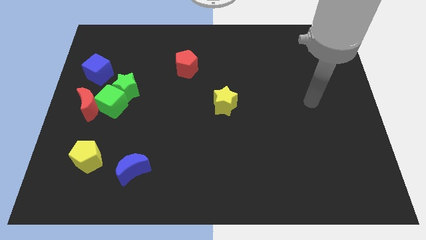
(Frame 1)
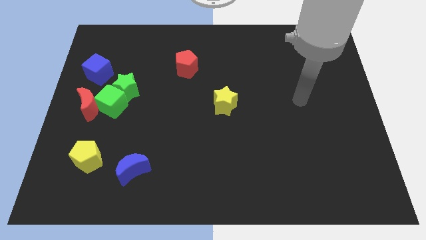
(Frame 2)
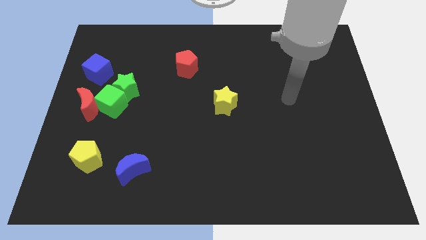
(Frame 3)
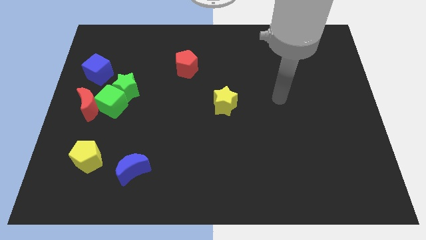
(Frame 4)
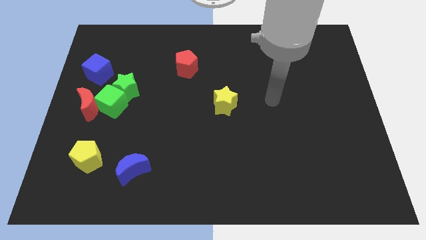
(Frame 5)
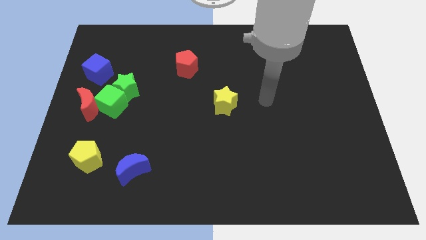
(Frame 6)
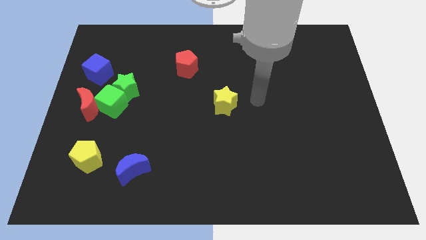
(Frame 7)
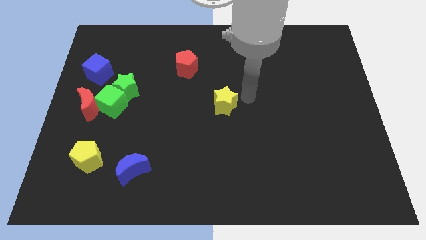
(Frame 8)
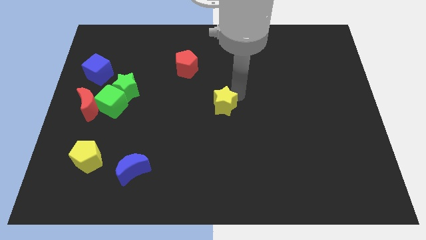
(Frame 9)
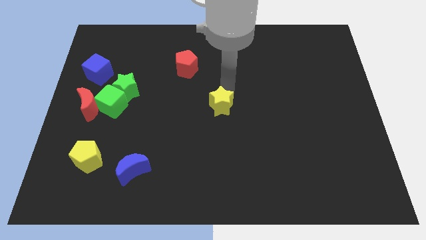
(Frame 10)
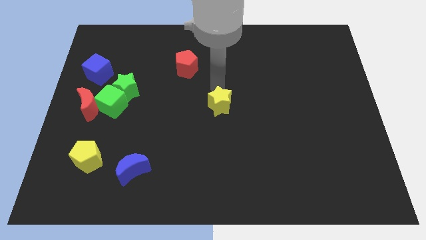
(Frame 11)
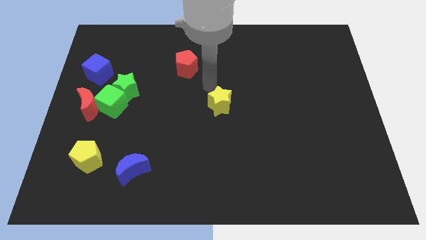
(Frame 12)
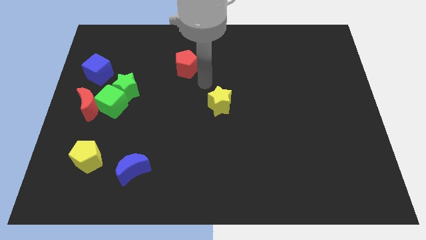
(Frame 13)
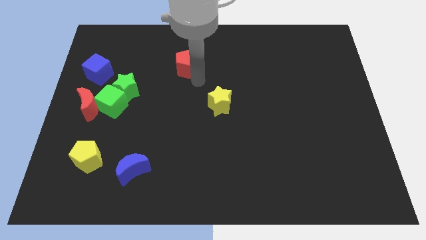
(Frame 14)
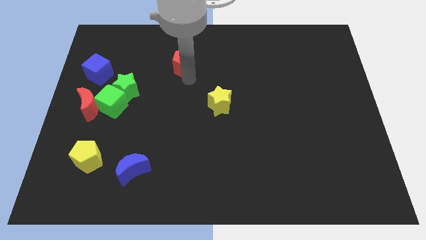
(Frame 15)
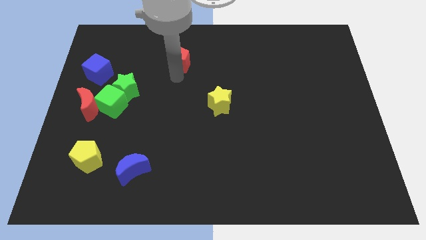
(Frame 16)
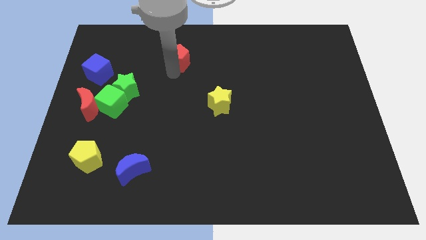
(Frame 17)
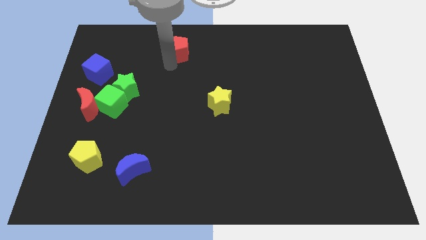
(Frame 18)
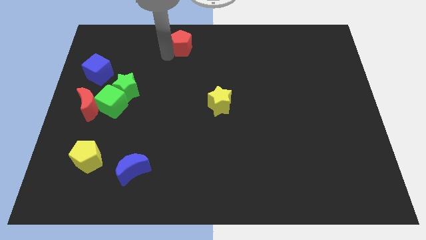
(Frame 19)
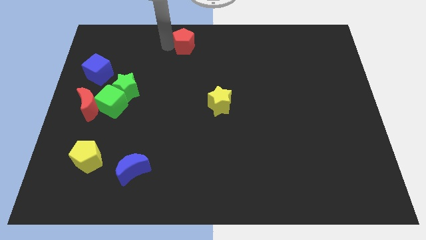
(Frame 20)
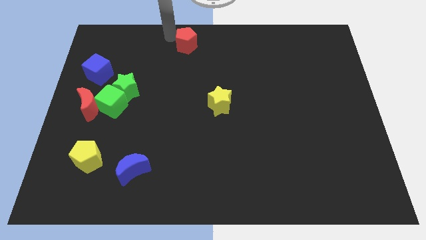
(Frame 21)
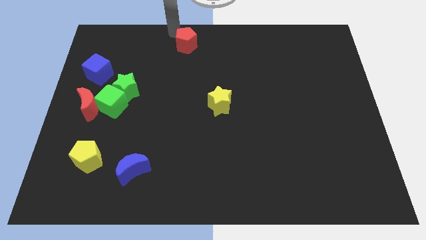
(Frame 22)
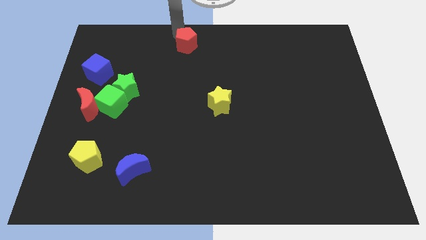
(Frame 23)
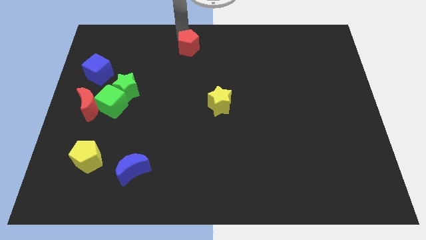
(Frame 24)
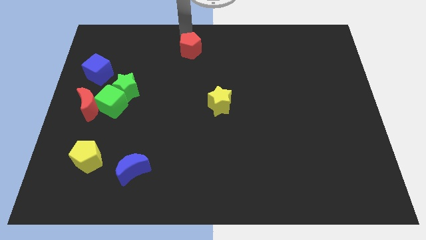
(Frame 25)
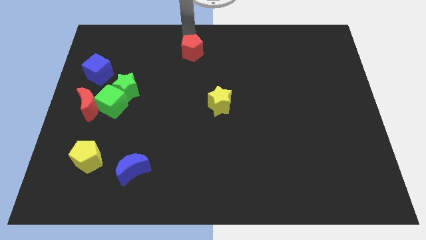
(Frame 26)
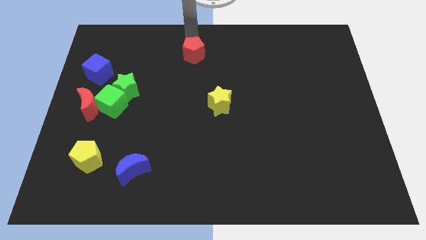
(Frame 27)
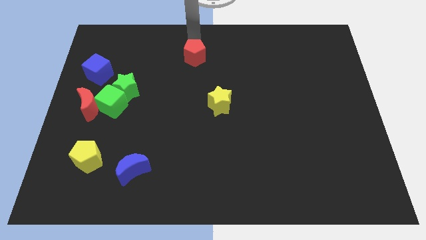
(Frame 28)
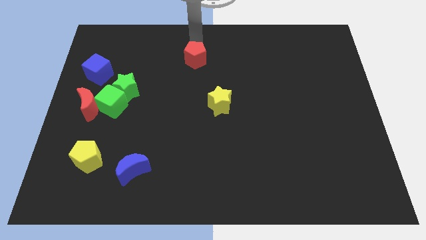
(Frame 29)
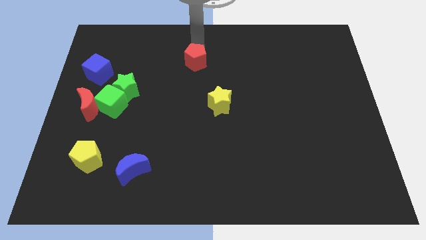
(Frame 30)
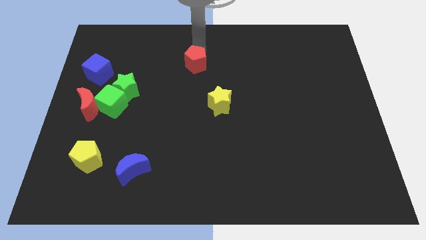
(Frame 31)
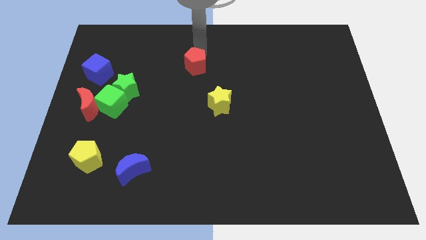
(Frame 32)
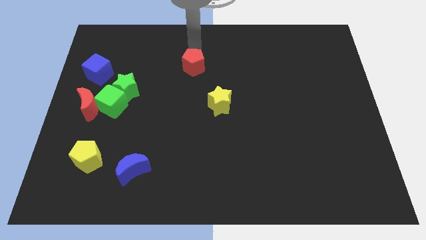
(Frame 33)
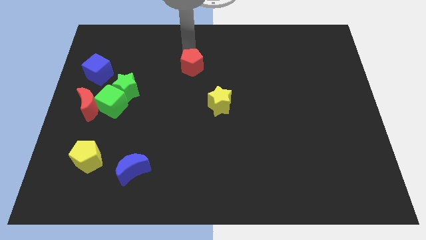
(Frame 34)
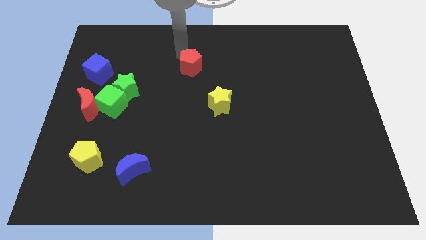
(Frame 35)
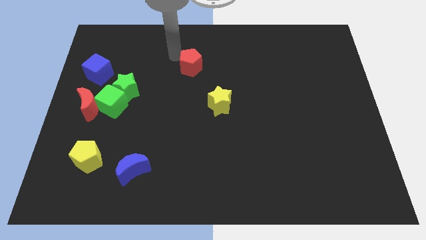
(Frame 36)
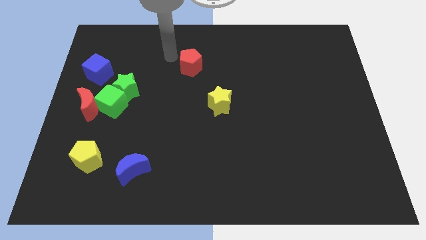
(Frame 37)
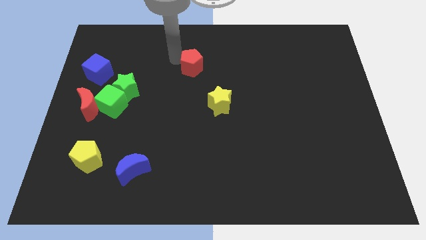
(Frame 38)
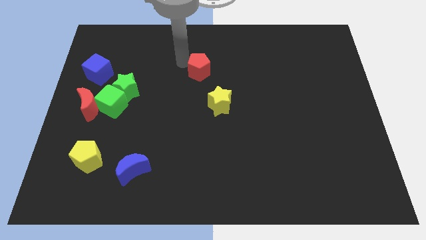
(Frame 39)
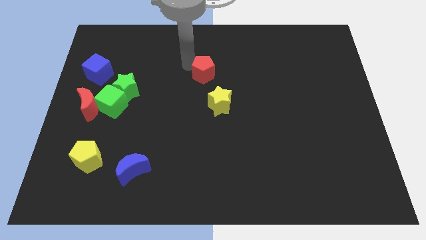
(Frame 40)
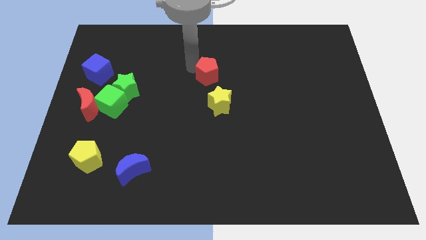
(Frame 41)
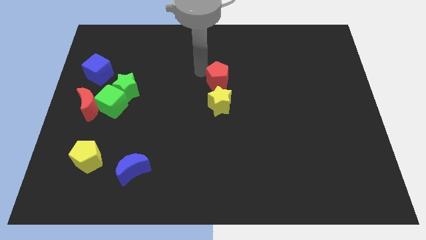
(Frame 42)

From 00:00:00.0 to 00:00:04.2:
slide the red pentagon down and right diagonally slightly

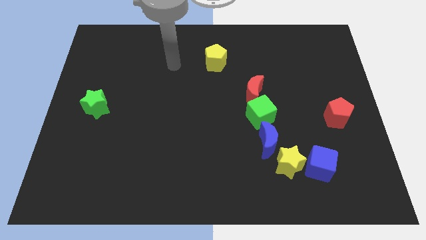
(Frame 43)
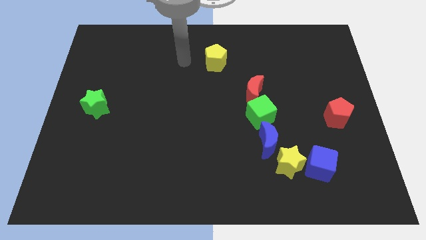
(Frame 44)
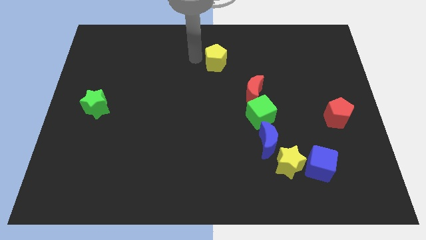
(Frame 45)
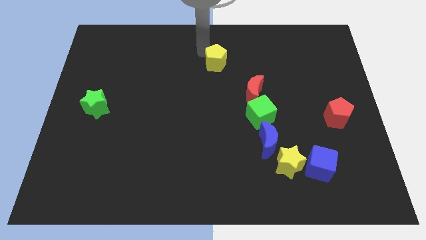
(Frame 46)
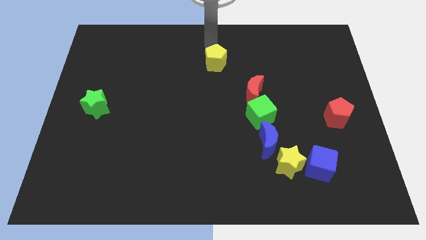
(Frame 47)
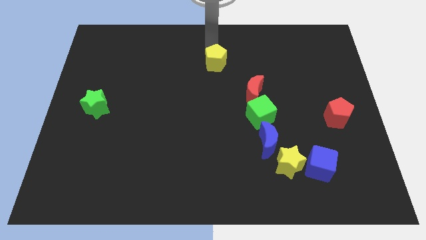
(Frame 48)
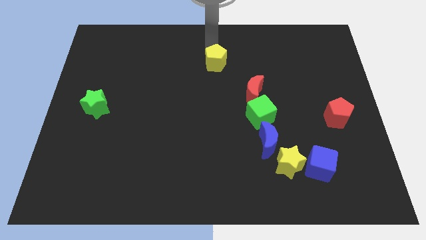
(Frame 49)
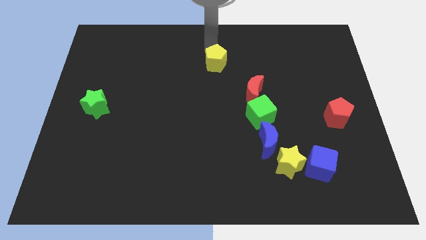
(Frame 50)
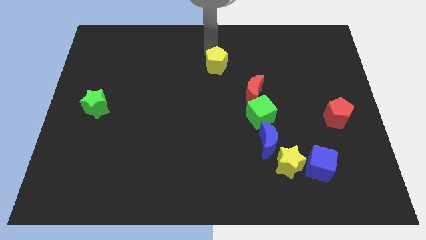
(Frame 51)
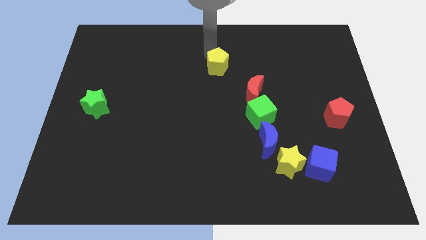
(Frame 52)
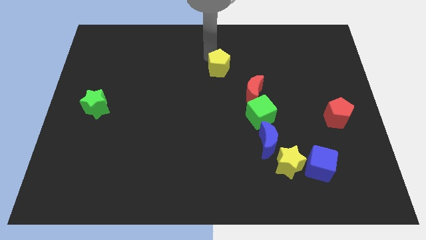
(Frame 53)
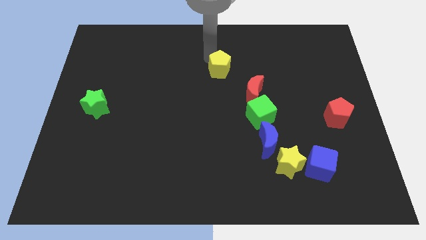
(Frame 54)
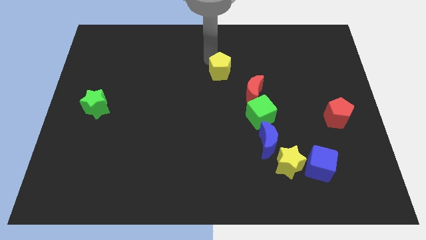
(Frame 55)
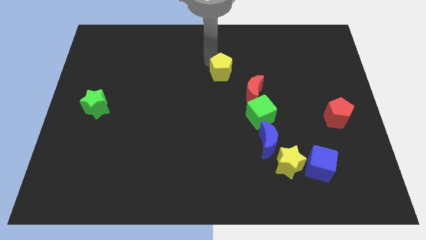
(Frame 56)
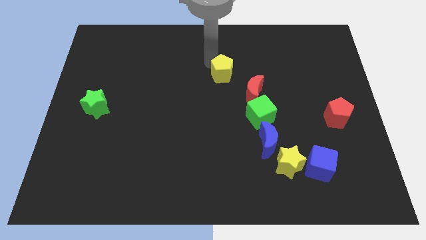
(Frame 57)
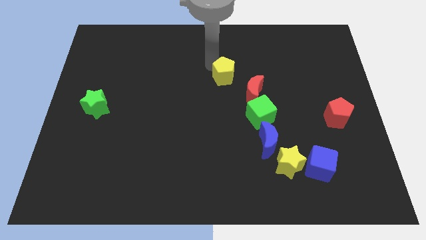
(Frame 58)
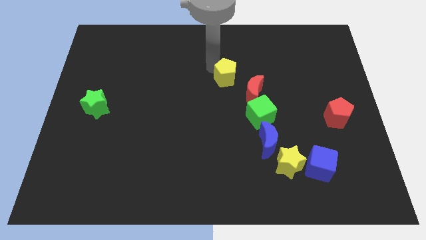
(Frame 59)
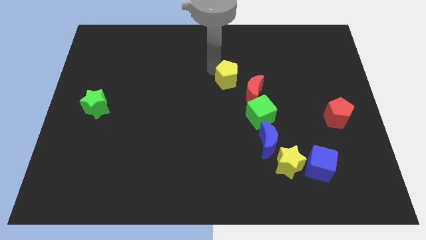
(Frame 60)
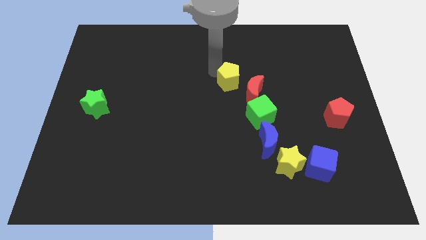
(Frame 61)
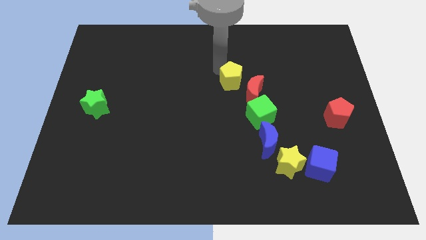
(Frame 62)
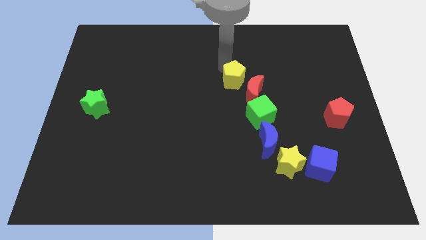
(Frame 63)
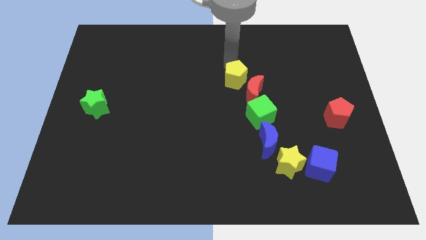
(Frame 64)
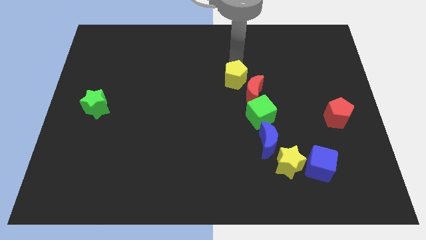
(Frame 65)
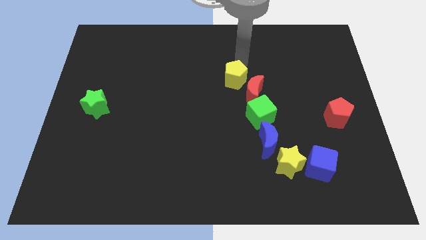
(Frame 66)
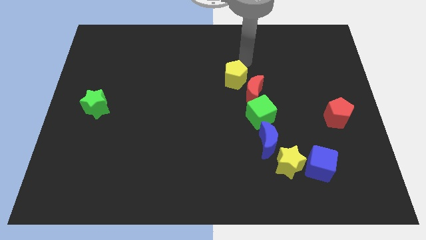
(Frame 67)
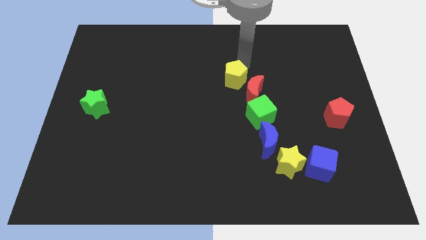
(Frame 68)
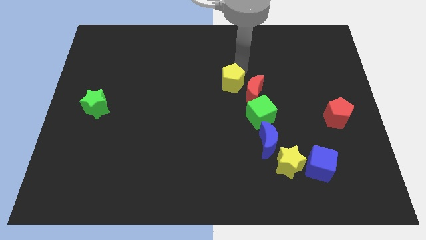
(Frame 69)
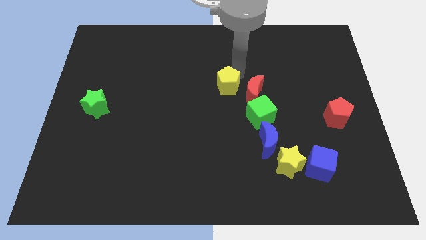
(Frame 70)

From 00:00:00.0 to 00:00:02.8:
slide the yellow pentagon slightly down

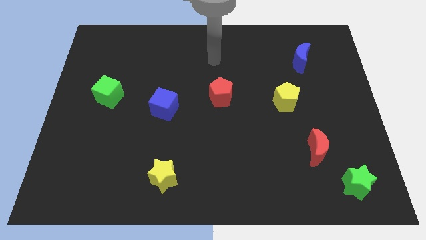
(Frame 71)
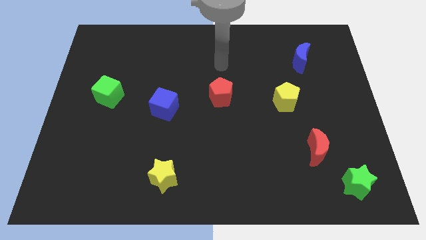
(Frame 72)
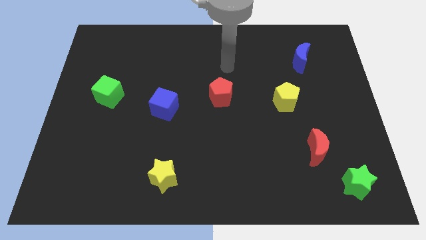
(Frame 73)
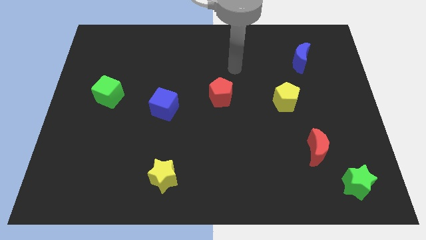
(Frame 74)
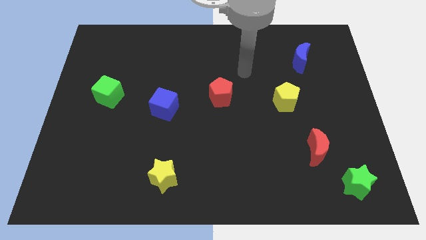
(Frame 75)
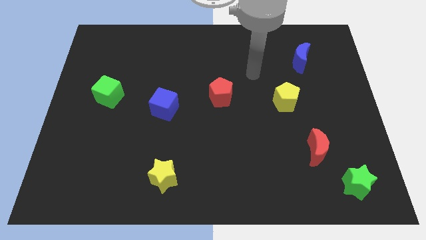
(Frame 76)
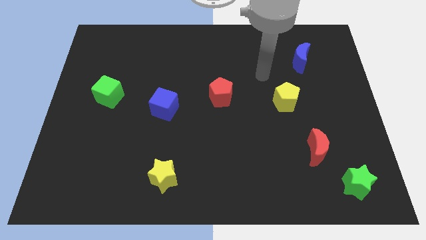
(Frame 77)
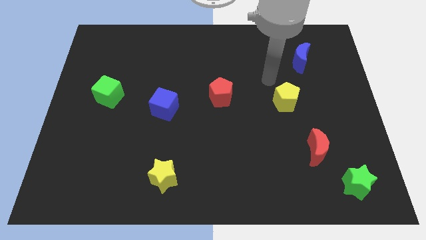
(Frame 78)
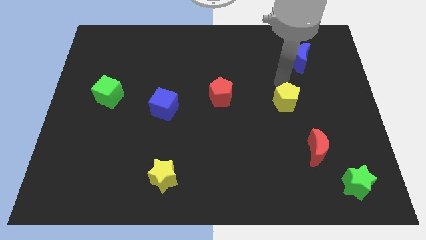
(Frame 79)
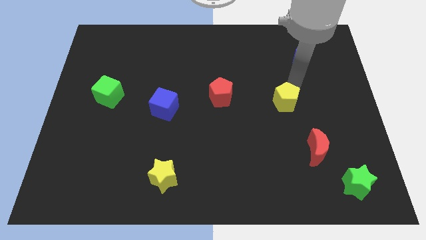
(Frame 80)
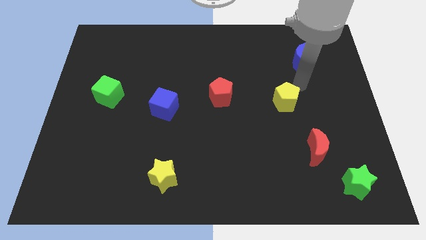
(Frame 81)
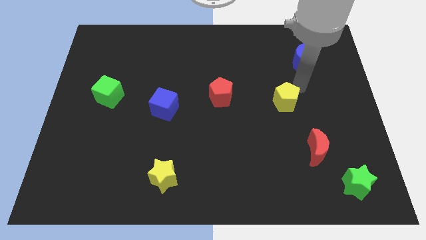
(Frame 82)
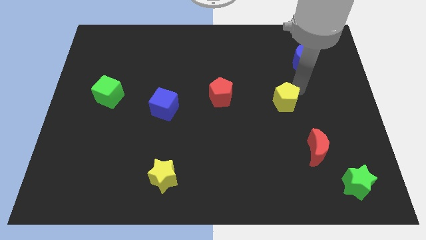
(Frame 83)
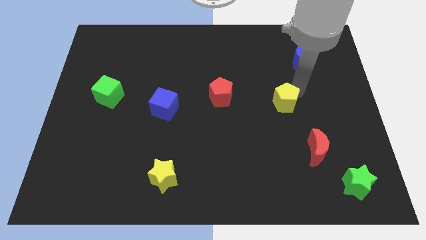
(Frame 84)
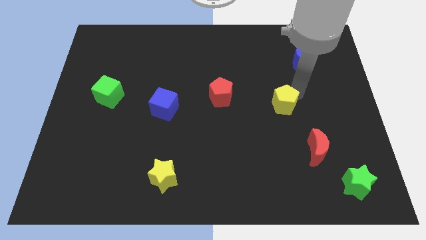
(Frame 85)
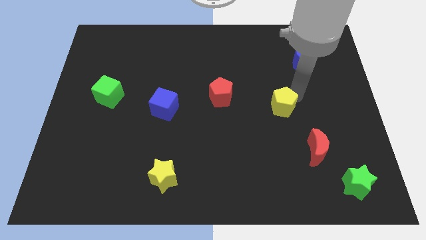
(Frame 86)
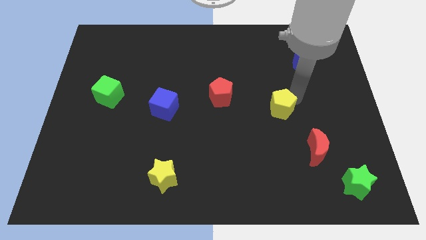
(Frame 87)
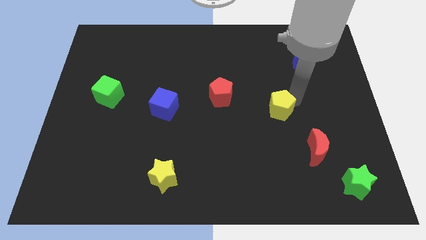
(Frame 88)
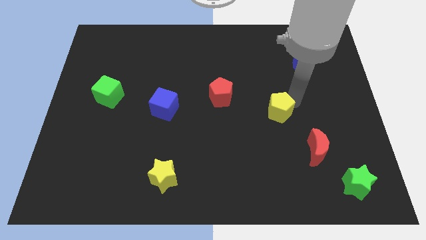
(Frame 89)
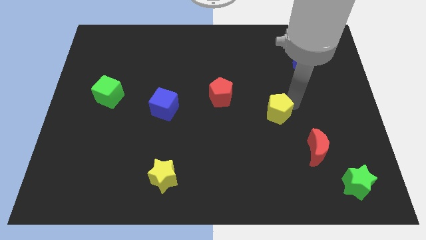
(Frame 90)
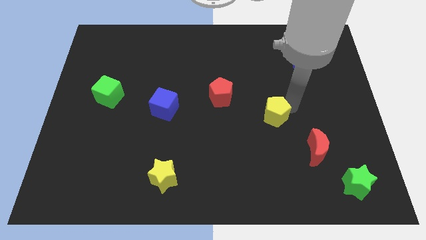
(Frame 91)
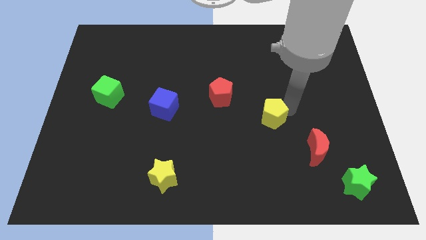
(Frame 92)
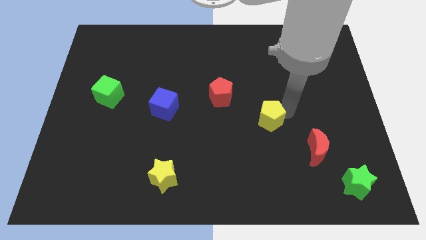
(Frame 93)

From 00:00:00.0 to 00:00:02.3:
move the yellow pentagon a bit down and then to the left
